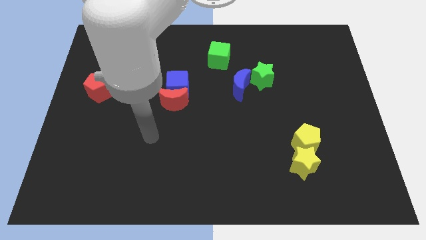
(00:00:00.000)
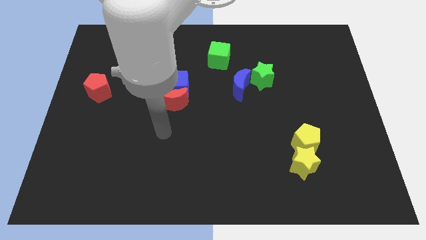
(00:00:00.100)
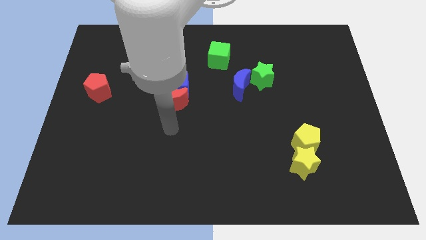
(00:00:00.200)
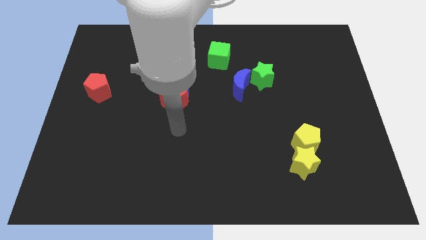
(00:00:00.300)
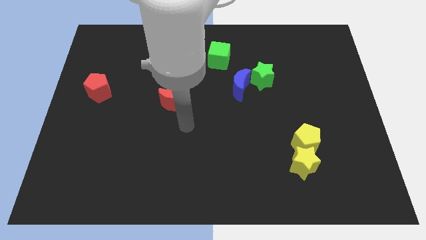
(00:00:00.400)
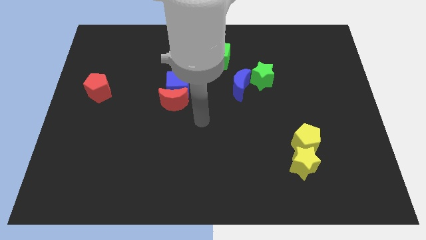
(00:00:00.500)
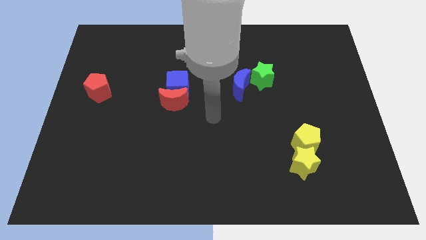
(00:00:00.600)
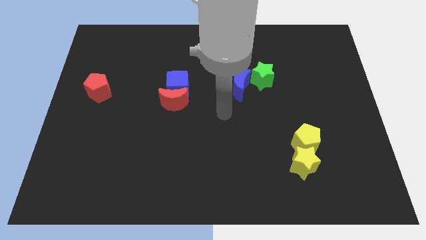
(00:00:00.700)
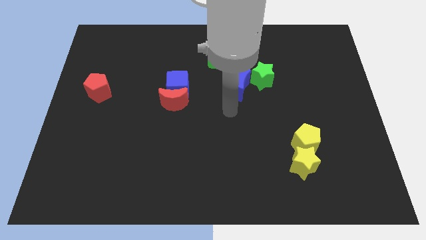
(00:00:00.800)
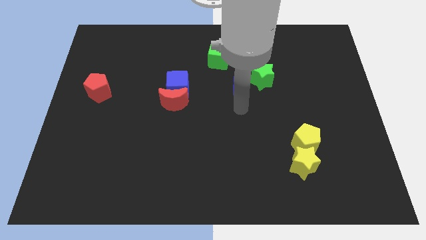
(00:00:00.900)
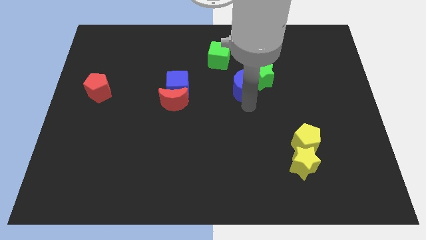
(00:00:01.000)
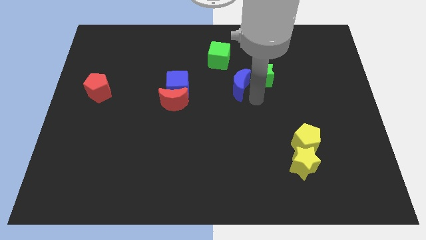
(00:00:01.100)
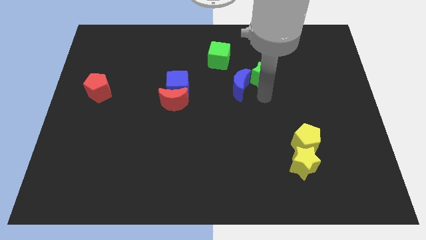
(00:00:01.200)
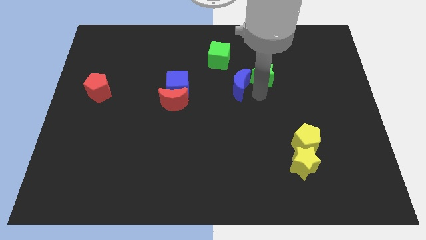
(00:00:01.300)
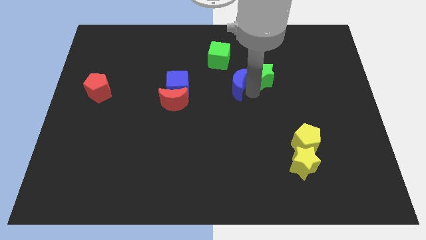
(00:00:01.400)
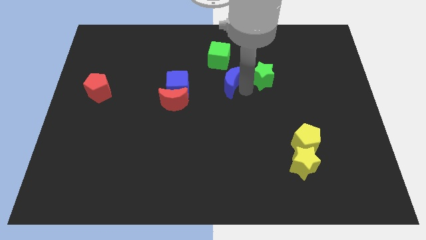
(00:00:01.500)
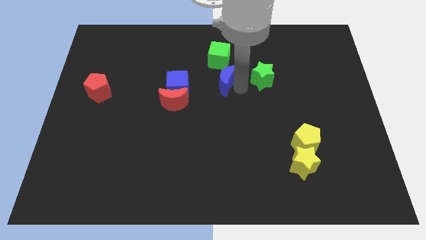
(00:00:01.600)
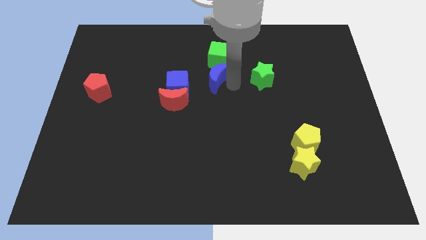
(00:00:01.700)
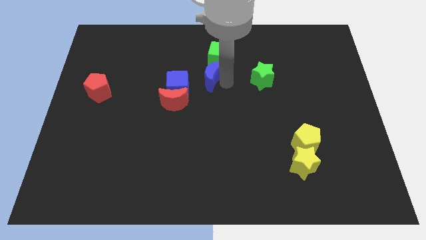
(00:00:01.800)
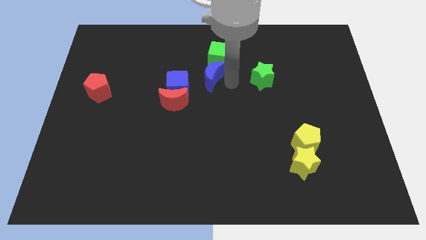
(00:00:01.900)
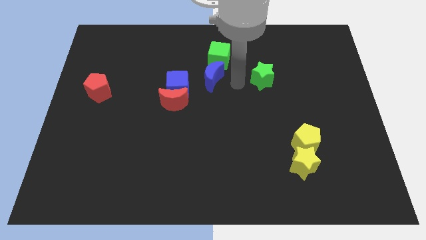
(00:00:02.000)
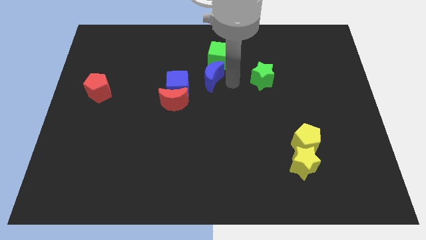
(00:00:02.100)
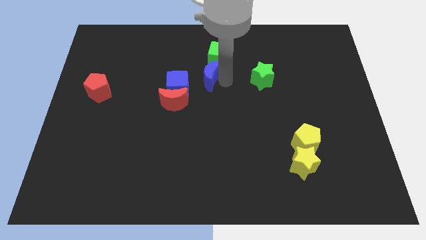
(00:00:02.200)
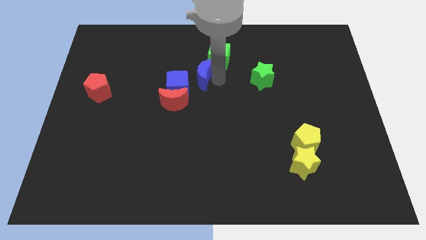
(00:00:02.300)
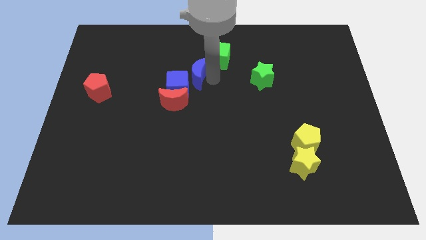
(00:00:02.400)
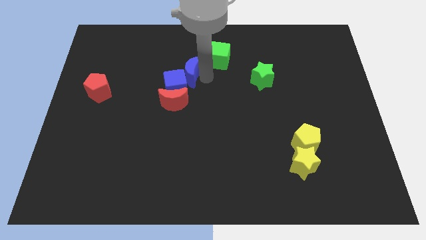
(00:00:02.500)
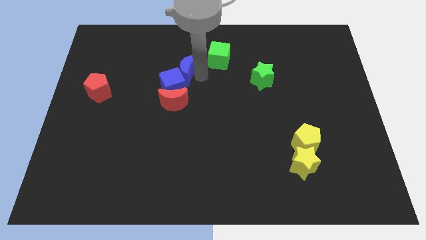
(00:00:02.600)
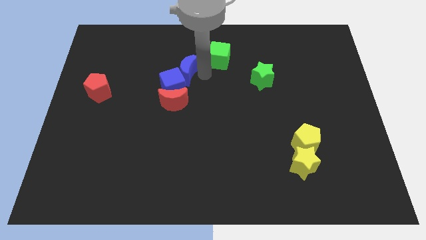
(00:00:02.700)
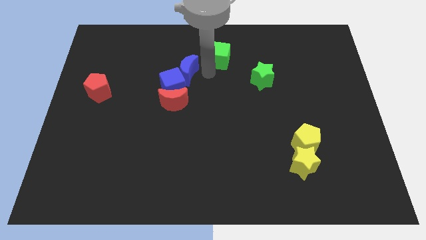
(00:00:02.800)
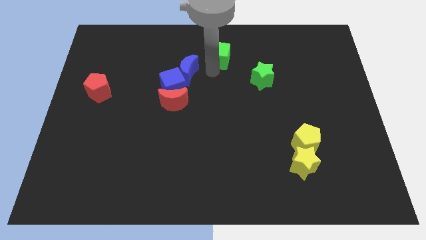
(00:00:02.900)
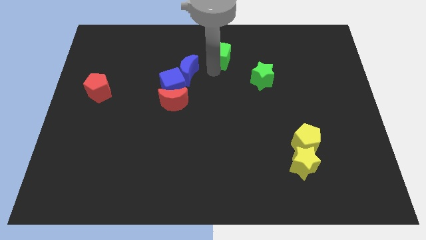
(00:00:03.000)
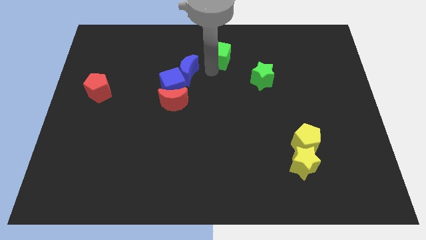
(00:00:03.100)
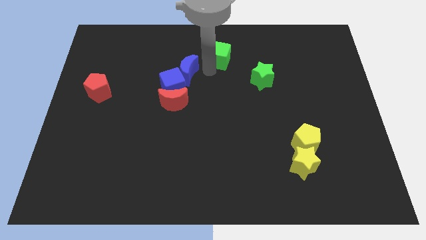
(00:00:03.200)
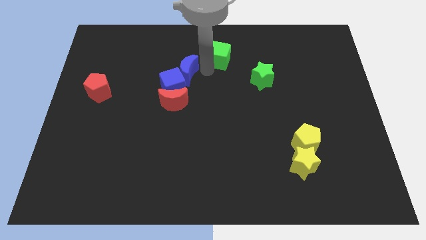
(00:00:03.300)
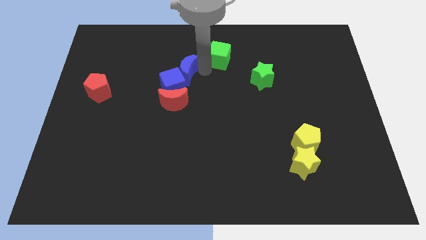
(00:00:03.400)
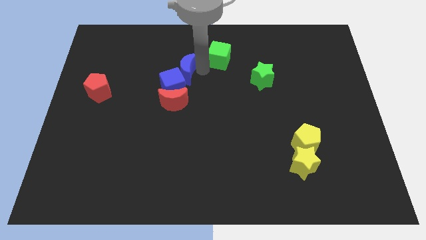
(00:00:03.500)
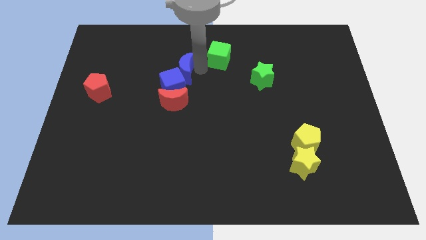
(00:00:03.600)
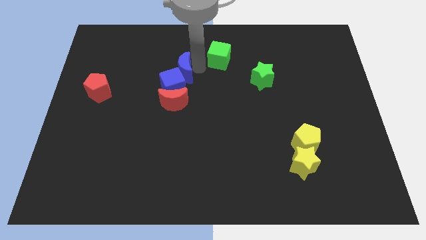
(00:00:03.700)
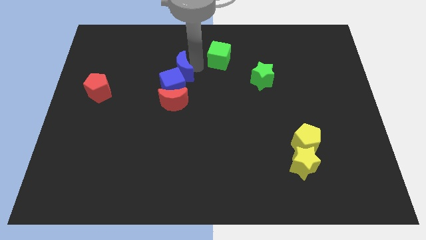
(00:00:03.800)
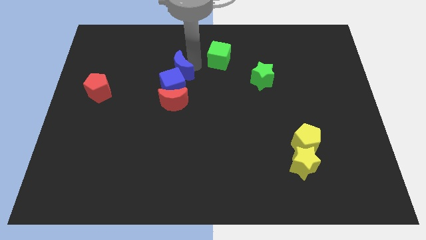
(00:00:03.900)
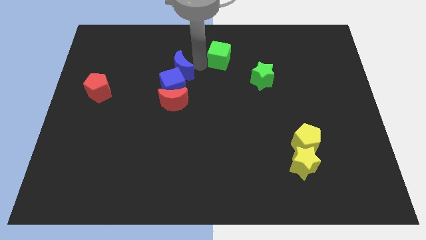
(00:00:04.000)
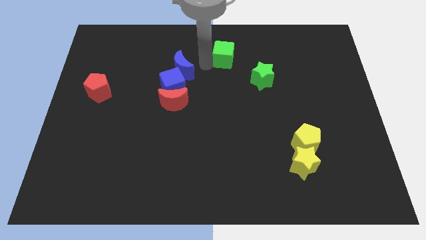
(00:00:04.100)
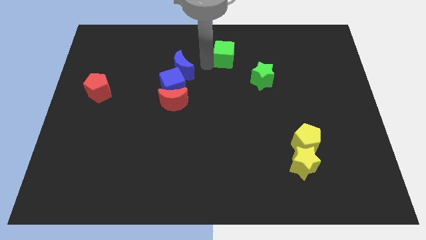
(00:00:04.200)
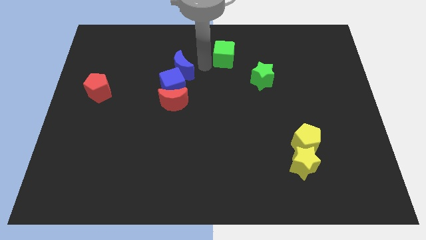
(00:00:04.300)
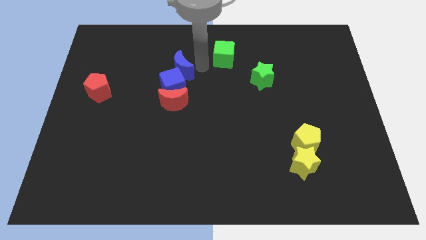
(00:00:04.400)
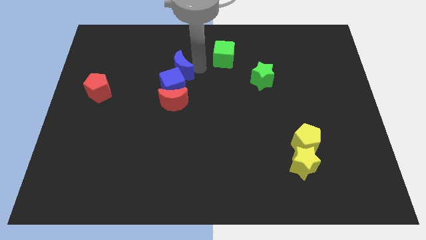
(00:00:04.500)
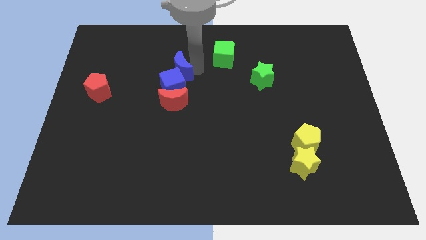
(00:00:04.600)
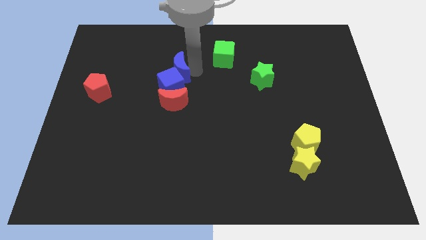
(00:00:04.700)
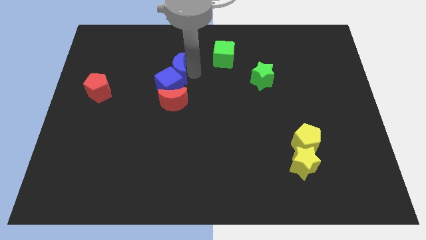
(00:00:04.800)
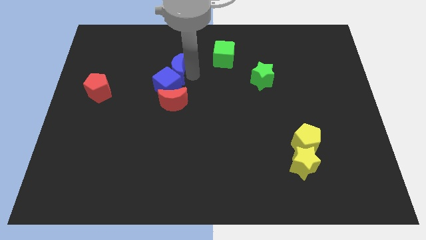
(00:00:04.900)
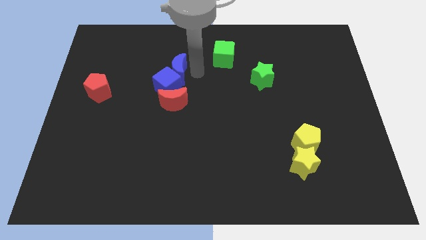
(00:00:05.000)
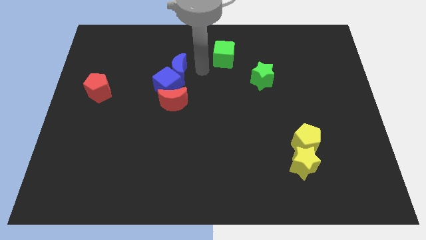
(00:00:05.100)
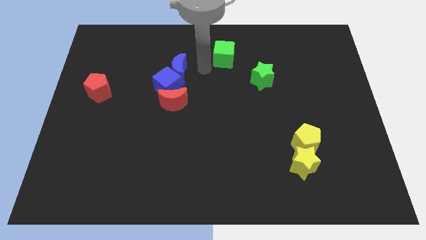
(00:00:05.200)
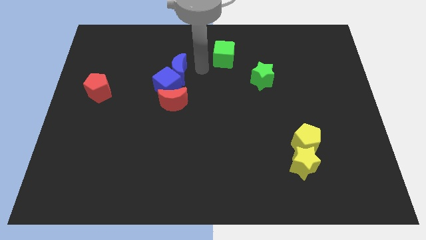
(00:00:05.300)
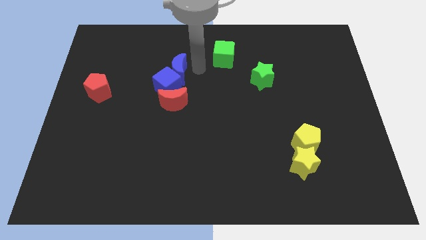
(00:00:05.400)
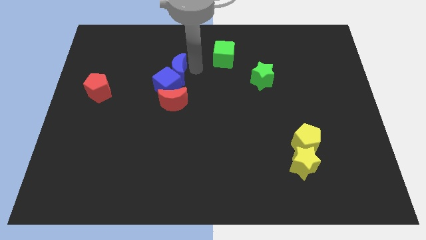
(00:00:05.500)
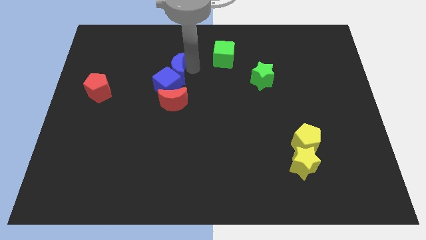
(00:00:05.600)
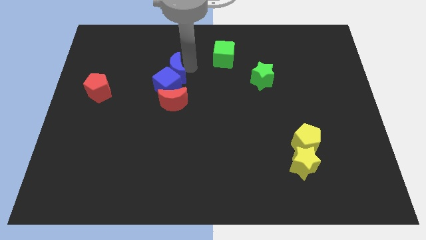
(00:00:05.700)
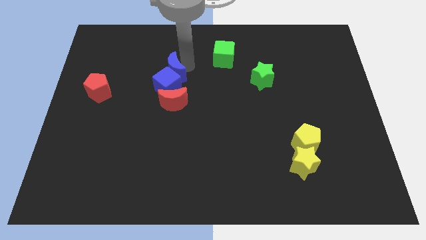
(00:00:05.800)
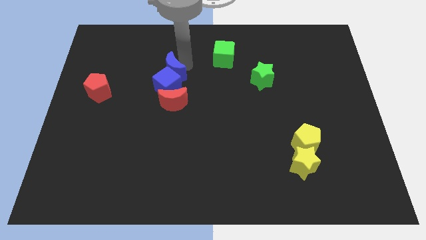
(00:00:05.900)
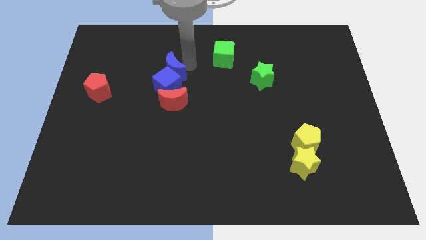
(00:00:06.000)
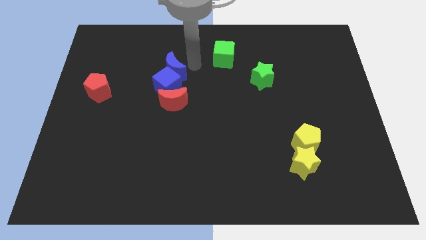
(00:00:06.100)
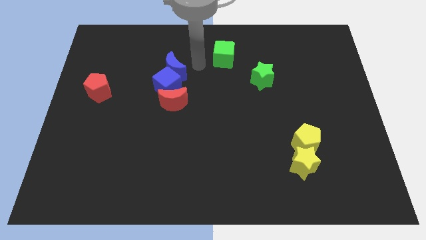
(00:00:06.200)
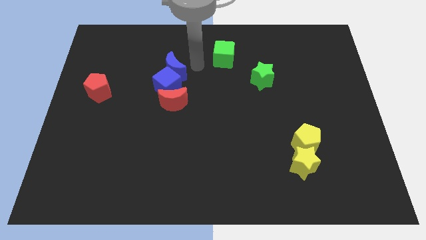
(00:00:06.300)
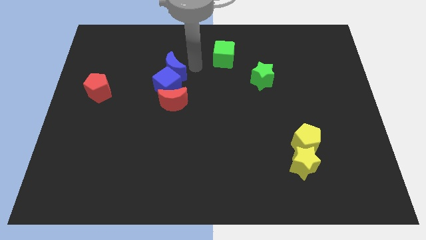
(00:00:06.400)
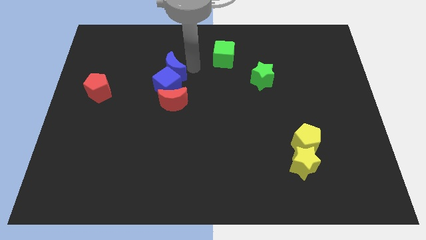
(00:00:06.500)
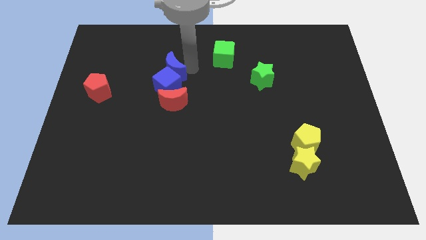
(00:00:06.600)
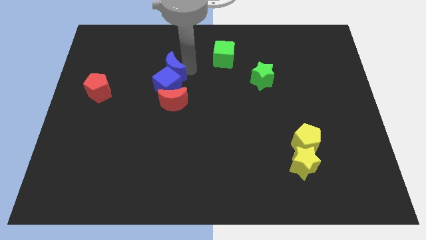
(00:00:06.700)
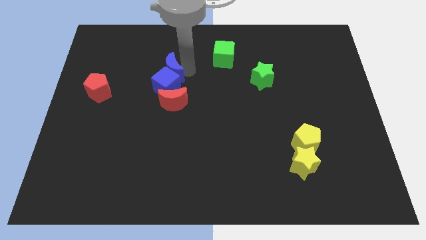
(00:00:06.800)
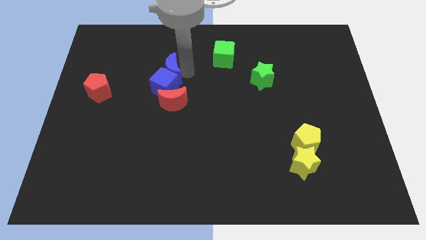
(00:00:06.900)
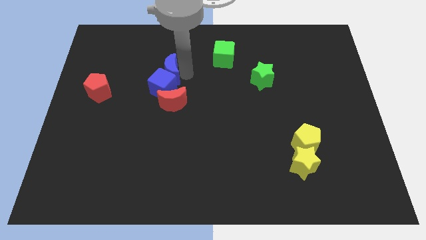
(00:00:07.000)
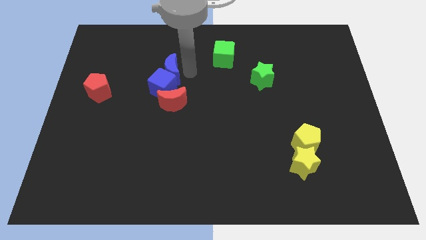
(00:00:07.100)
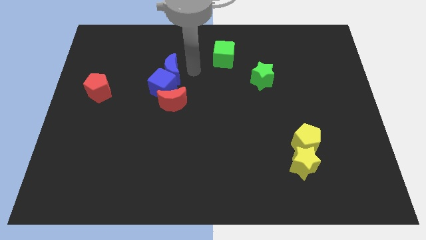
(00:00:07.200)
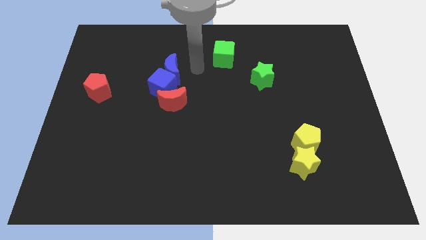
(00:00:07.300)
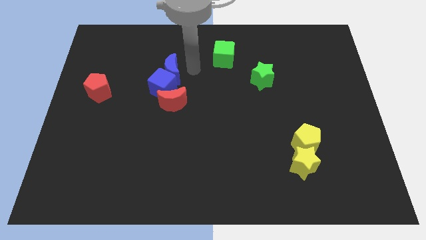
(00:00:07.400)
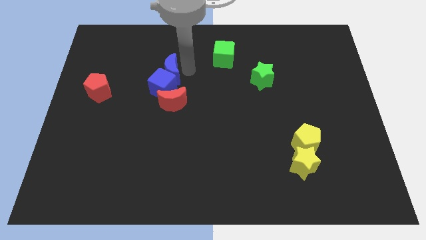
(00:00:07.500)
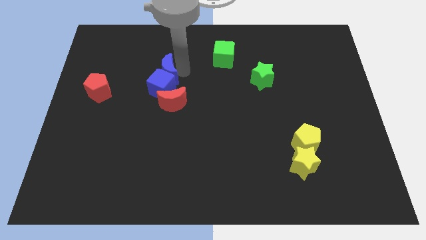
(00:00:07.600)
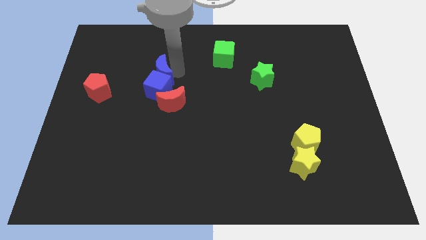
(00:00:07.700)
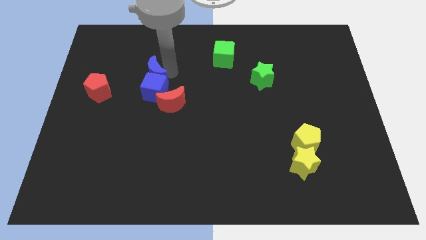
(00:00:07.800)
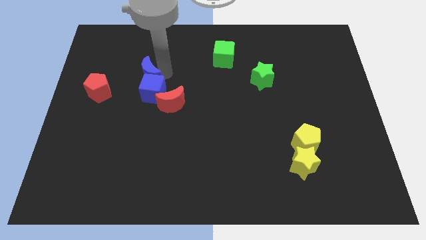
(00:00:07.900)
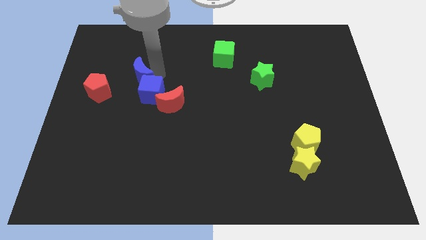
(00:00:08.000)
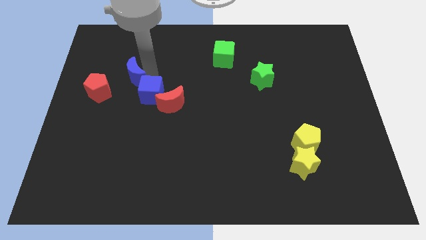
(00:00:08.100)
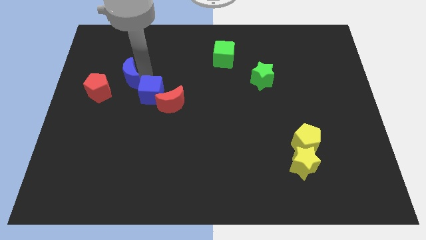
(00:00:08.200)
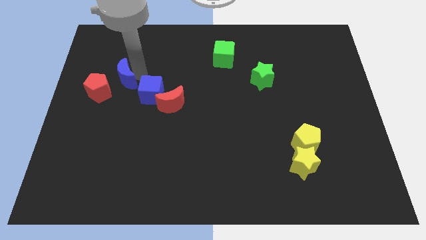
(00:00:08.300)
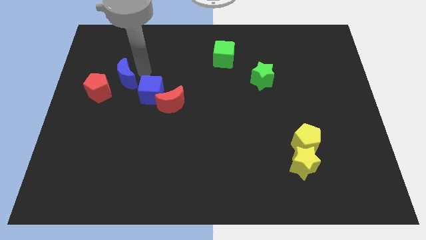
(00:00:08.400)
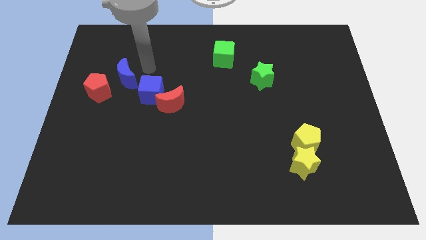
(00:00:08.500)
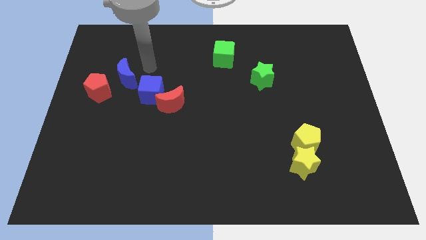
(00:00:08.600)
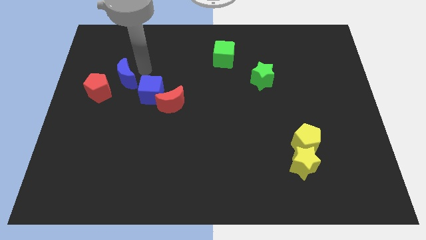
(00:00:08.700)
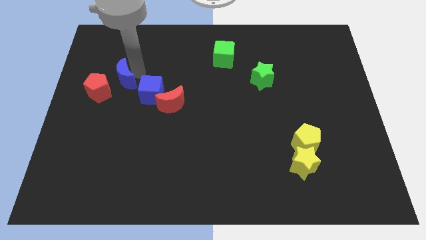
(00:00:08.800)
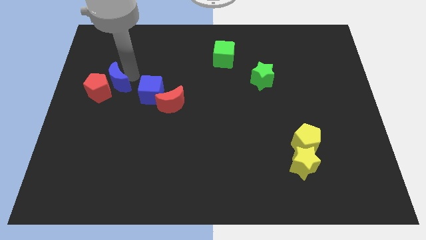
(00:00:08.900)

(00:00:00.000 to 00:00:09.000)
put the blue moon close to the red pentagon
